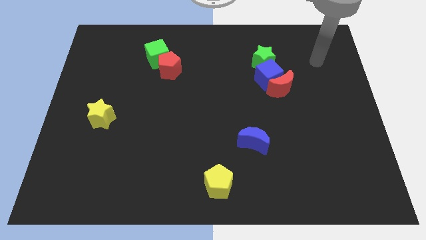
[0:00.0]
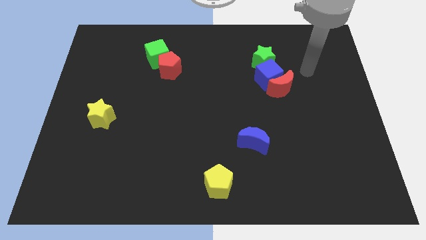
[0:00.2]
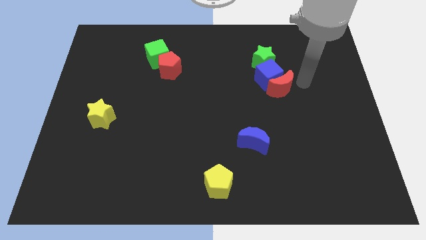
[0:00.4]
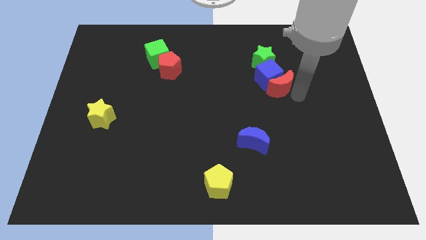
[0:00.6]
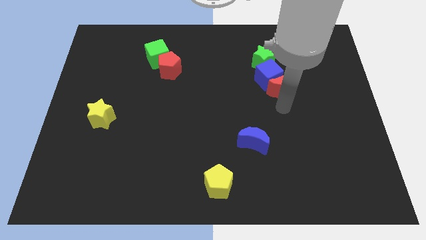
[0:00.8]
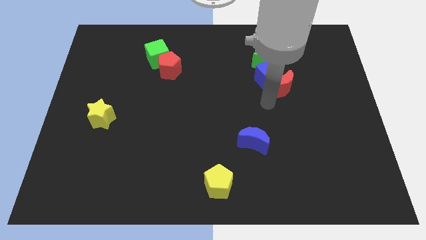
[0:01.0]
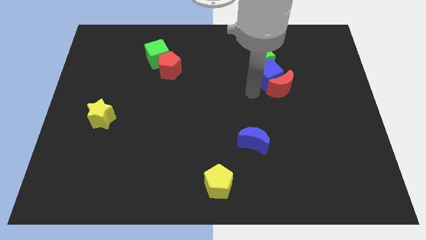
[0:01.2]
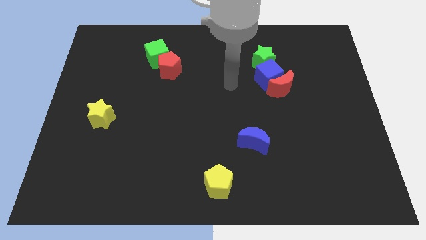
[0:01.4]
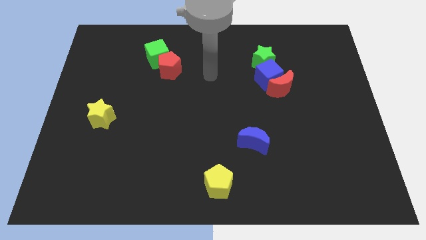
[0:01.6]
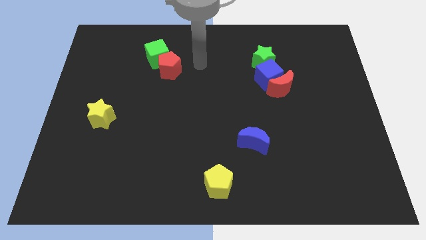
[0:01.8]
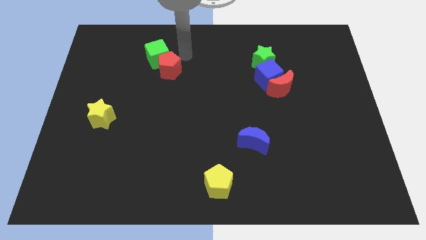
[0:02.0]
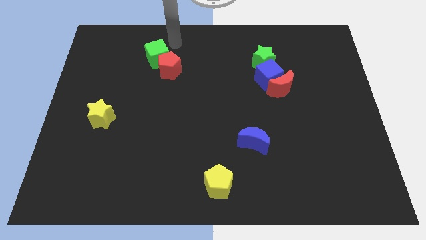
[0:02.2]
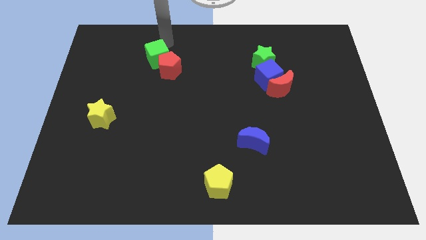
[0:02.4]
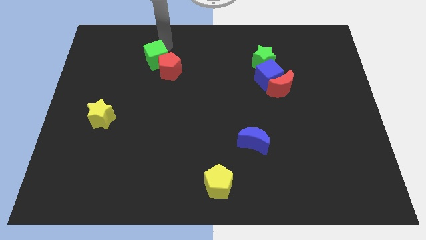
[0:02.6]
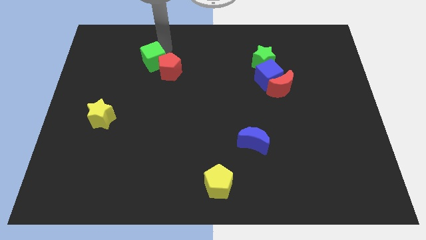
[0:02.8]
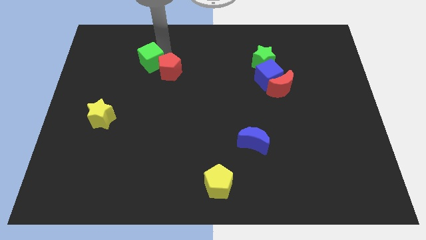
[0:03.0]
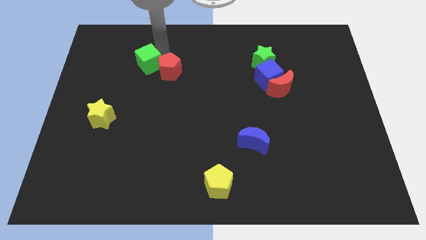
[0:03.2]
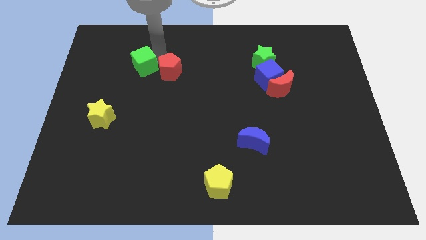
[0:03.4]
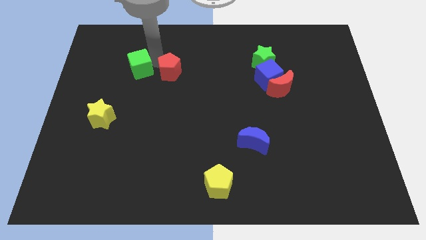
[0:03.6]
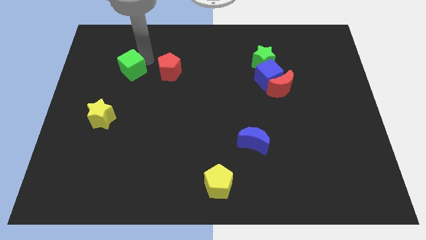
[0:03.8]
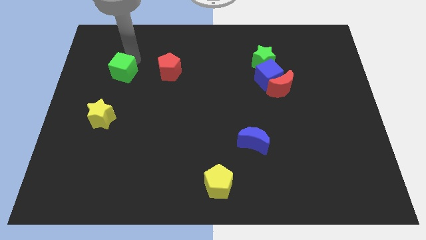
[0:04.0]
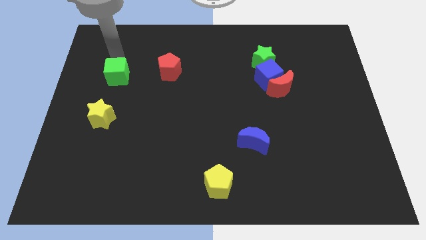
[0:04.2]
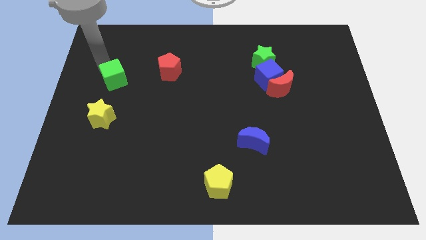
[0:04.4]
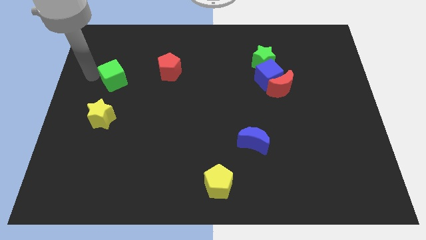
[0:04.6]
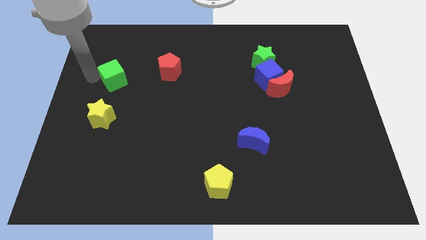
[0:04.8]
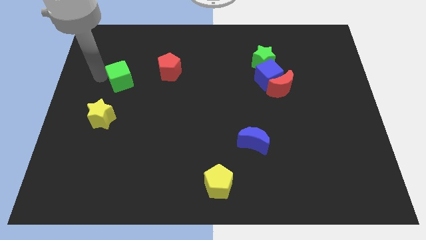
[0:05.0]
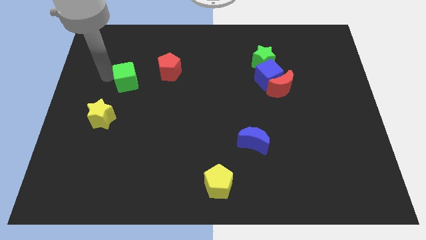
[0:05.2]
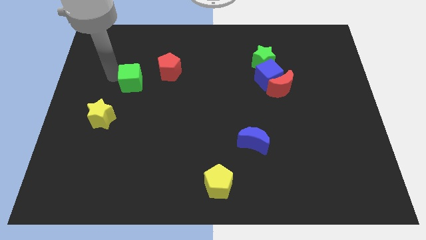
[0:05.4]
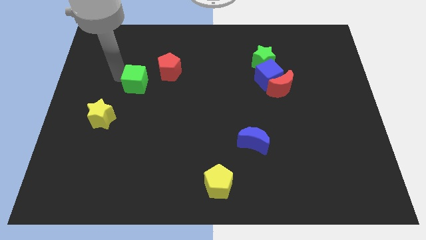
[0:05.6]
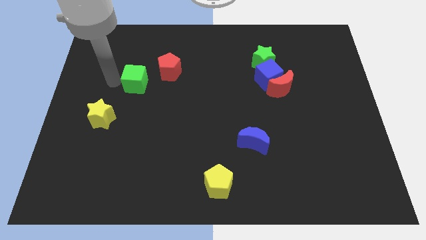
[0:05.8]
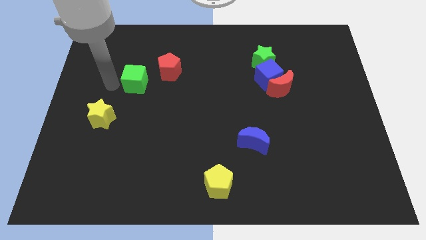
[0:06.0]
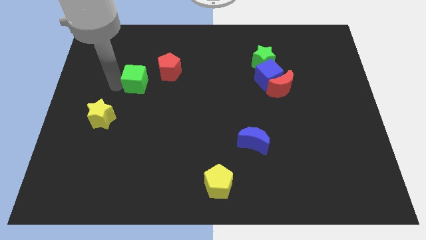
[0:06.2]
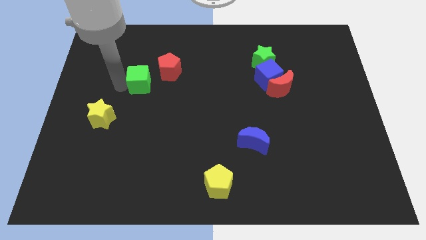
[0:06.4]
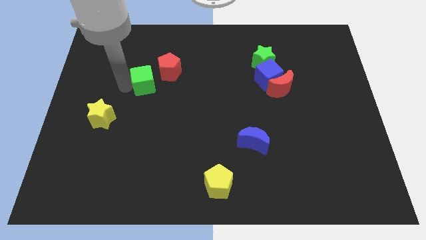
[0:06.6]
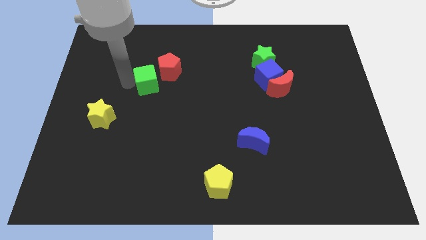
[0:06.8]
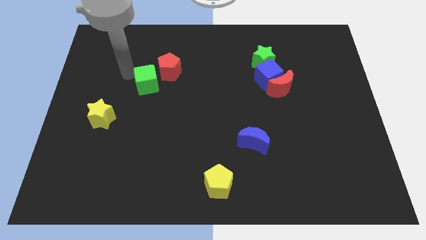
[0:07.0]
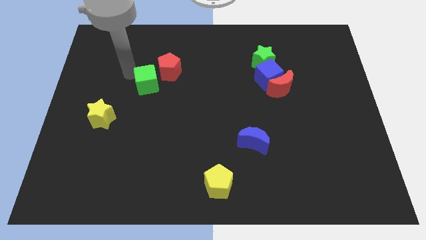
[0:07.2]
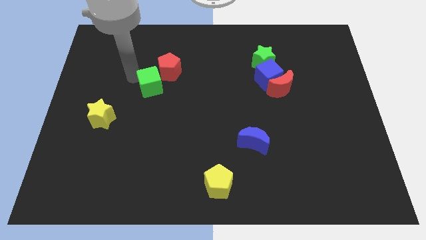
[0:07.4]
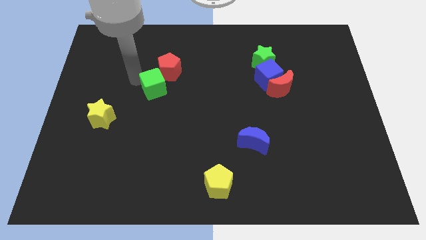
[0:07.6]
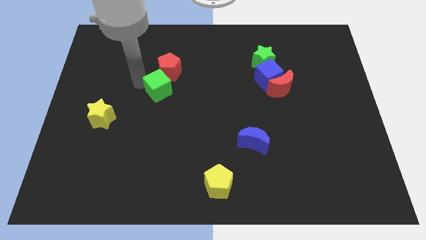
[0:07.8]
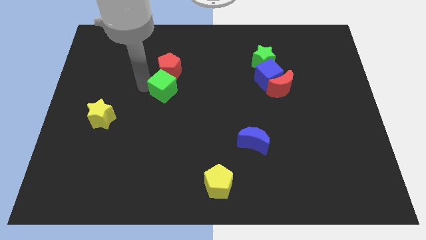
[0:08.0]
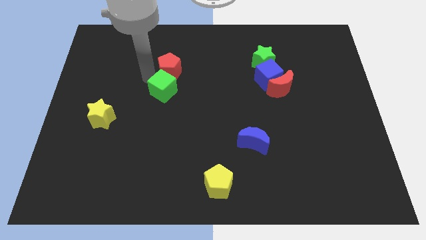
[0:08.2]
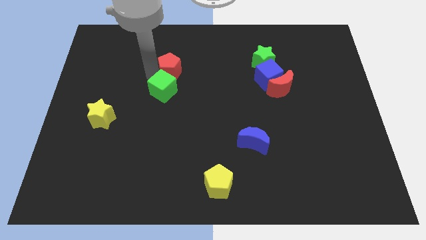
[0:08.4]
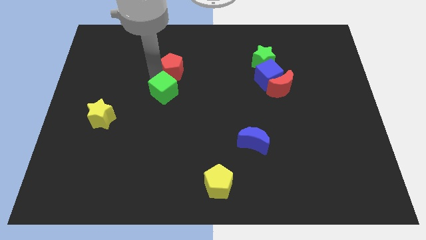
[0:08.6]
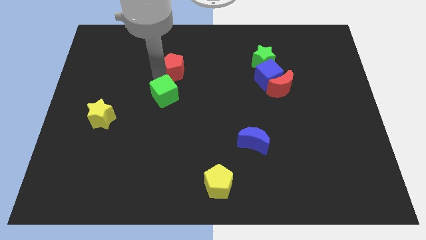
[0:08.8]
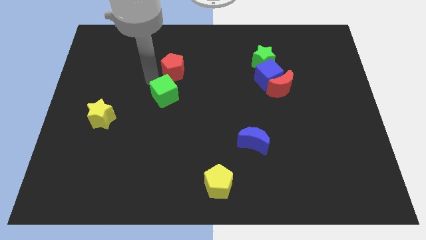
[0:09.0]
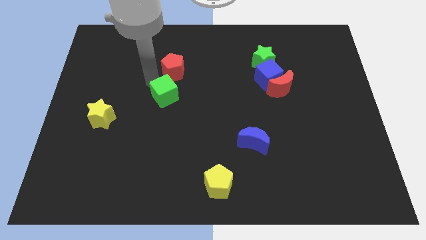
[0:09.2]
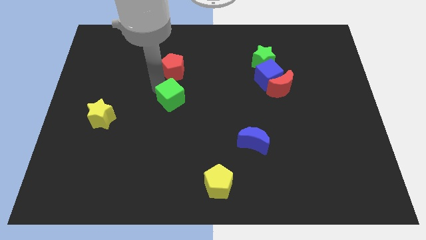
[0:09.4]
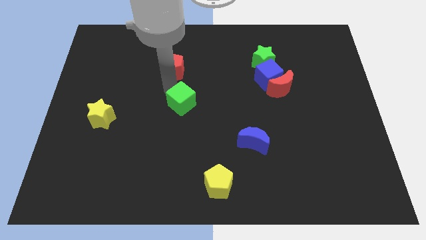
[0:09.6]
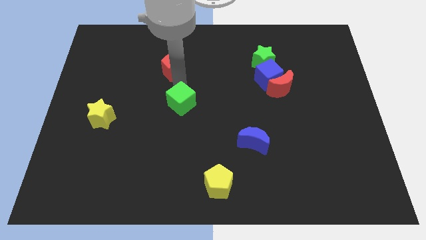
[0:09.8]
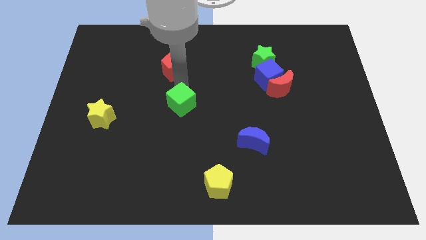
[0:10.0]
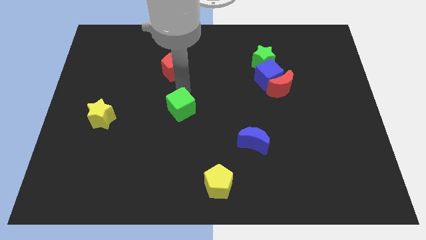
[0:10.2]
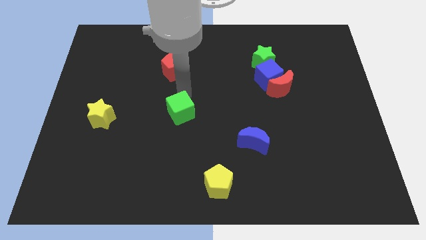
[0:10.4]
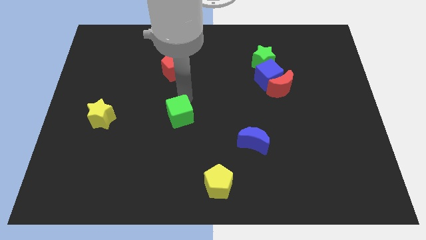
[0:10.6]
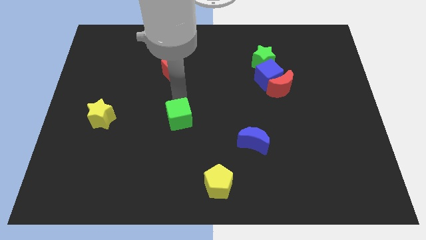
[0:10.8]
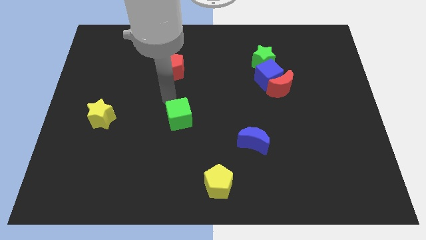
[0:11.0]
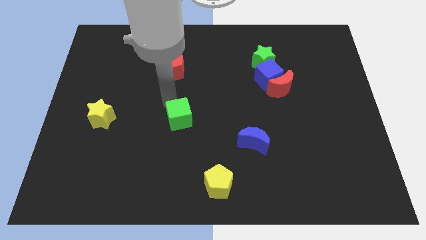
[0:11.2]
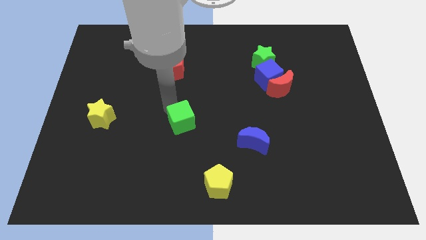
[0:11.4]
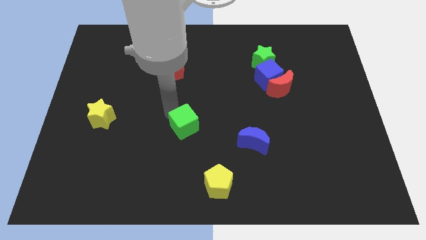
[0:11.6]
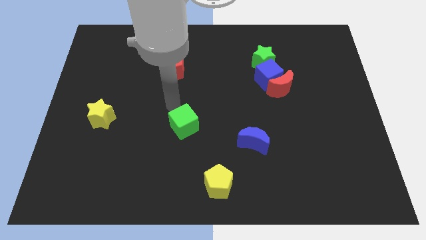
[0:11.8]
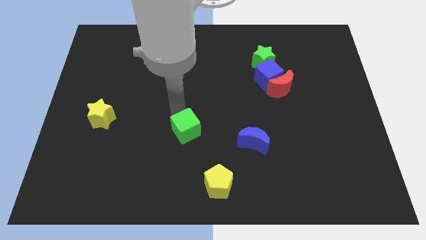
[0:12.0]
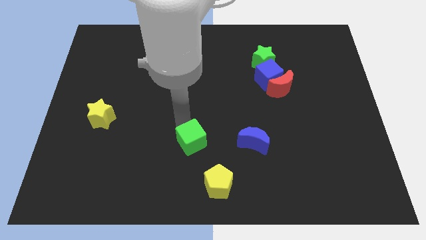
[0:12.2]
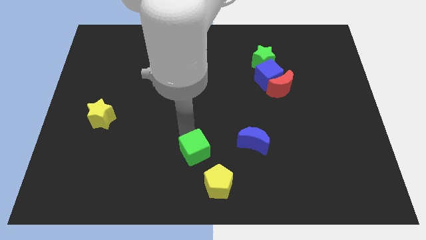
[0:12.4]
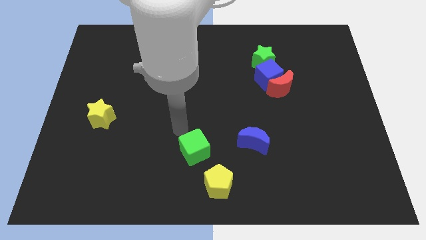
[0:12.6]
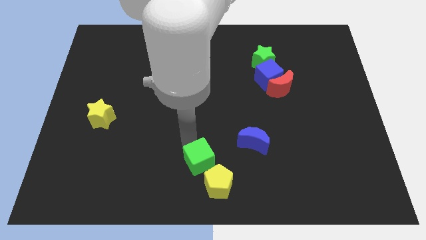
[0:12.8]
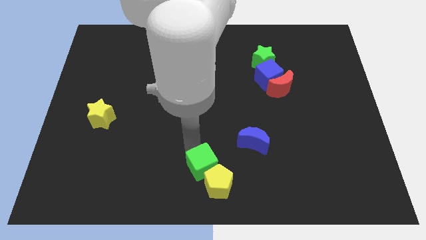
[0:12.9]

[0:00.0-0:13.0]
move the green cube next to the yellow pentagon

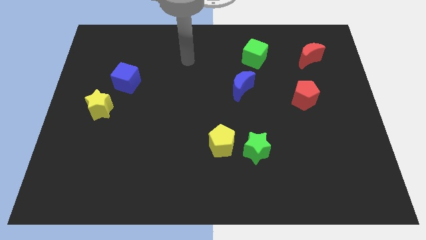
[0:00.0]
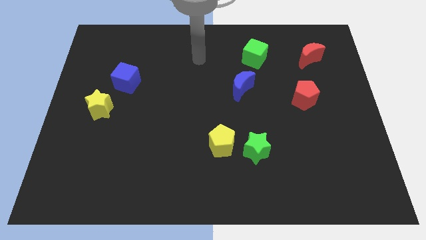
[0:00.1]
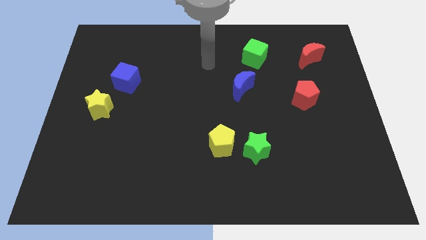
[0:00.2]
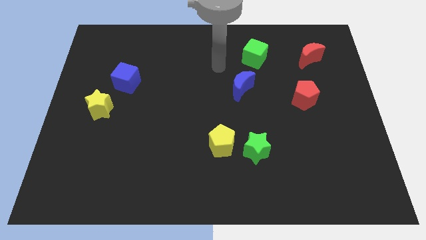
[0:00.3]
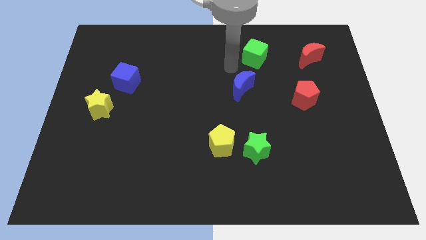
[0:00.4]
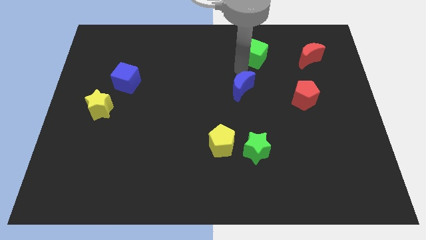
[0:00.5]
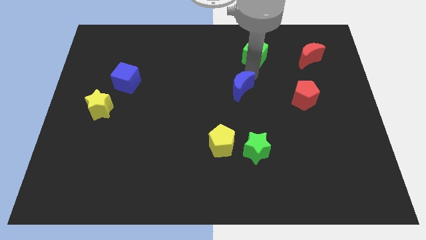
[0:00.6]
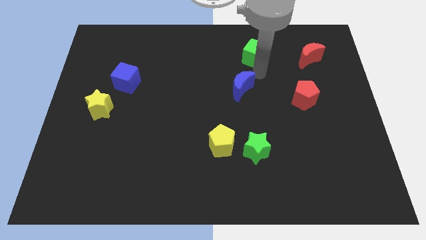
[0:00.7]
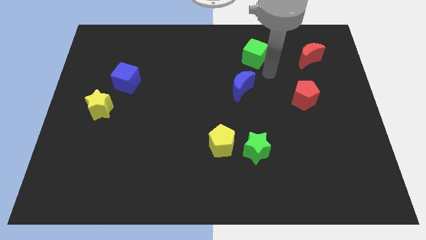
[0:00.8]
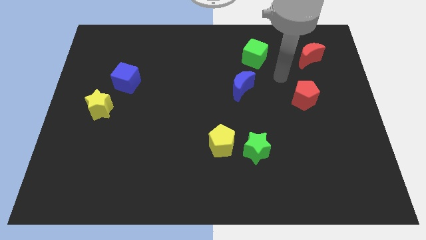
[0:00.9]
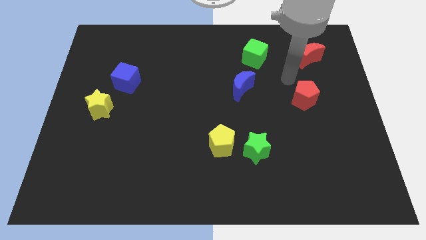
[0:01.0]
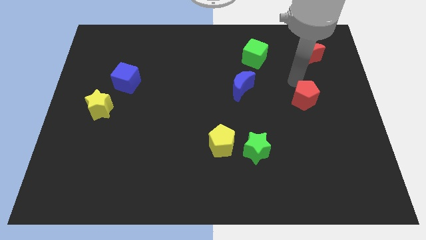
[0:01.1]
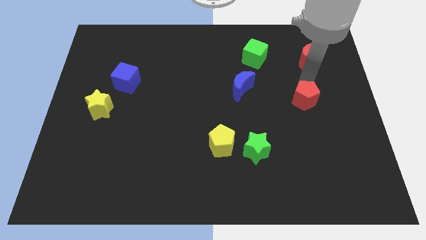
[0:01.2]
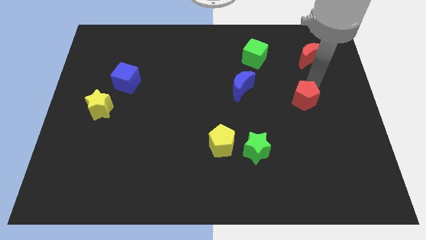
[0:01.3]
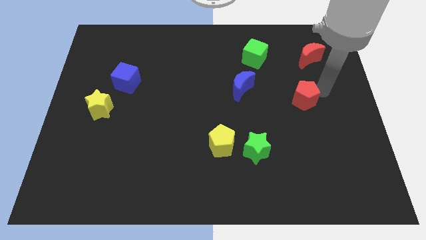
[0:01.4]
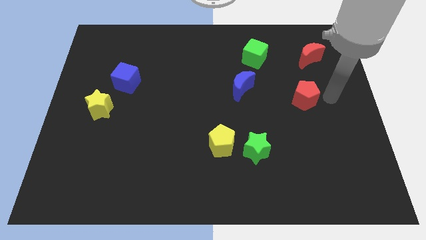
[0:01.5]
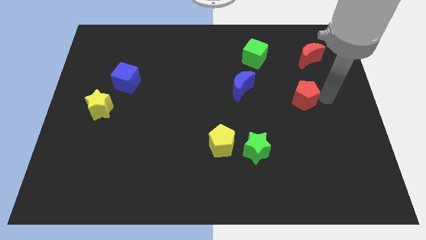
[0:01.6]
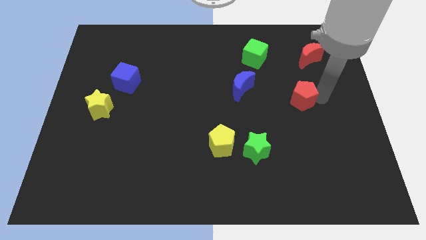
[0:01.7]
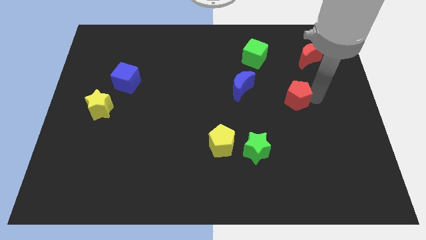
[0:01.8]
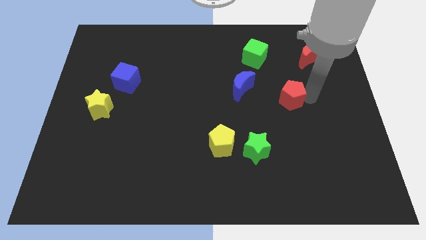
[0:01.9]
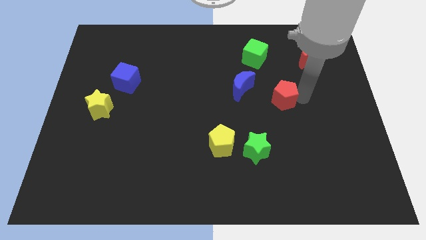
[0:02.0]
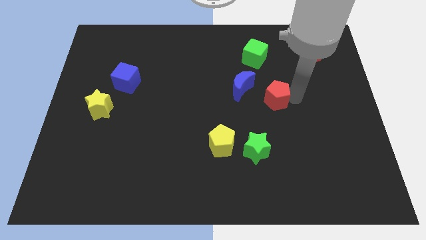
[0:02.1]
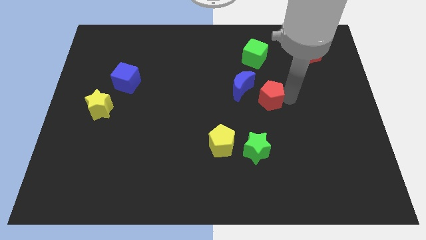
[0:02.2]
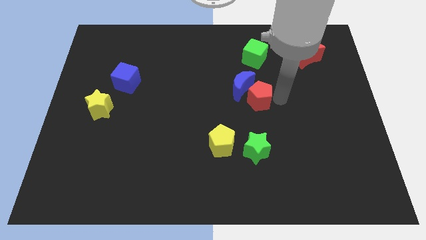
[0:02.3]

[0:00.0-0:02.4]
slide the red pentagon to the blue moon
